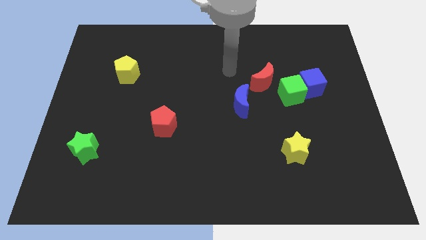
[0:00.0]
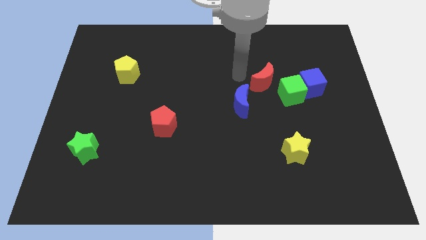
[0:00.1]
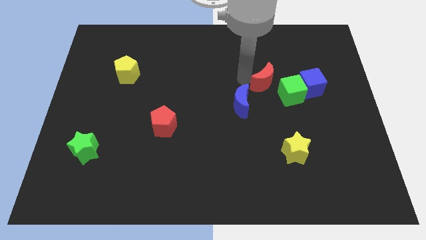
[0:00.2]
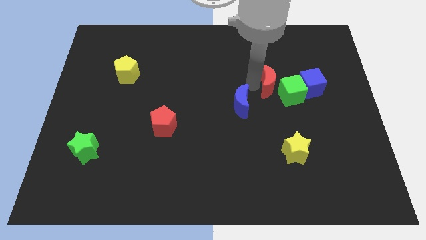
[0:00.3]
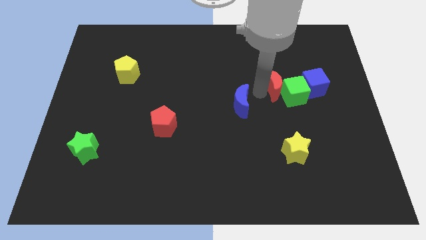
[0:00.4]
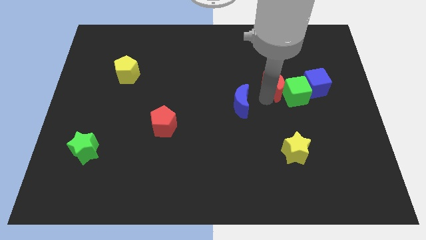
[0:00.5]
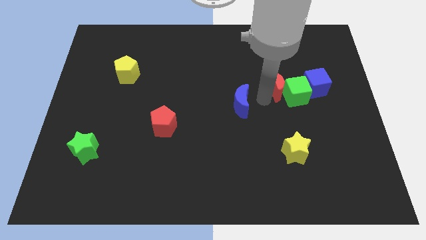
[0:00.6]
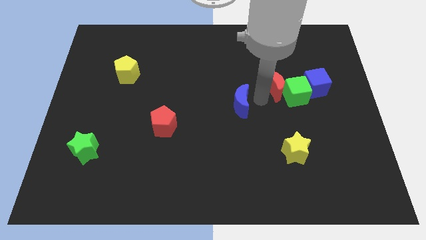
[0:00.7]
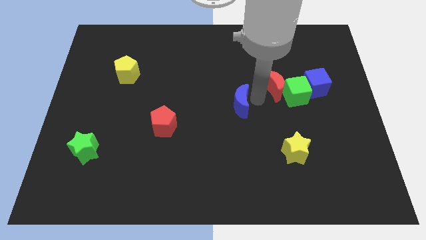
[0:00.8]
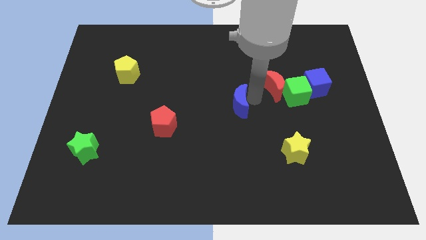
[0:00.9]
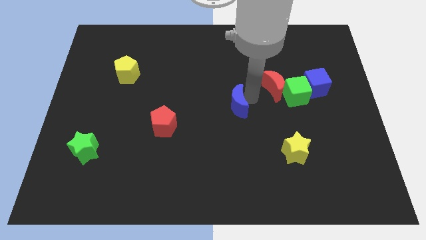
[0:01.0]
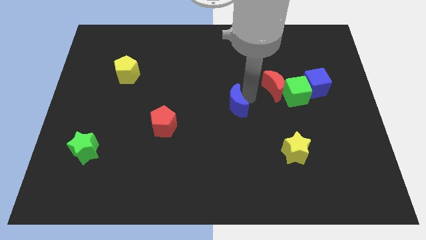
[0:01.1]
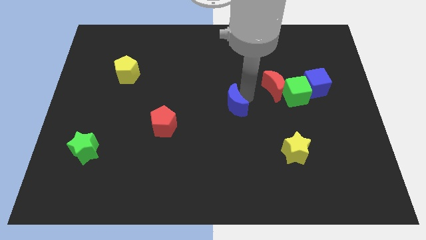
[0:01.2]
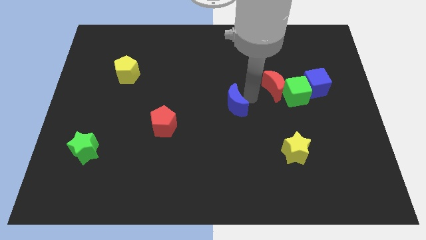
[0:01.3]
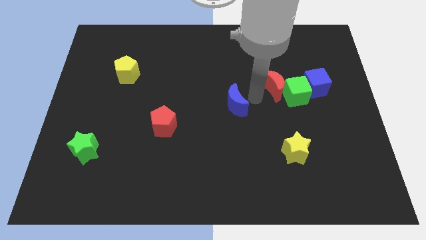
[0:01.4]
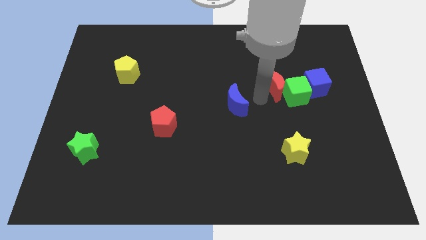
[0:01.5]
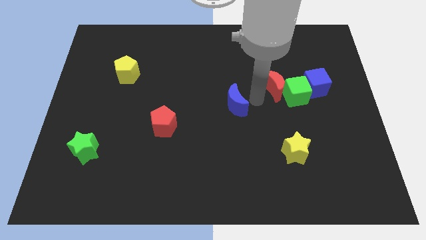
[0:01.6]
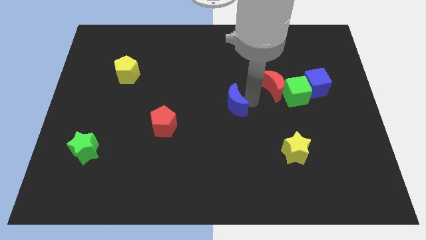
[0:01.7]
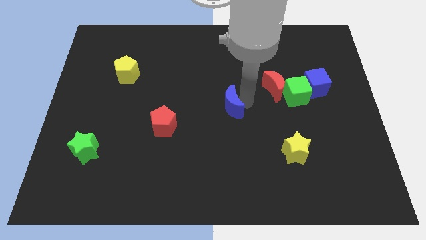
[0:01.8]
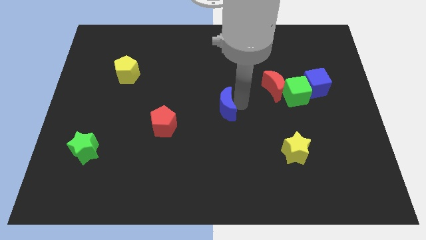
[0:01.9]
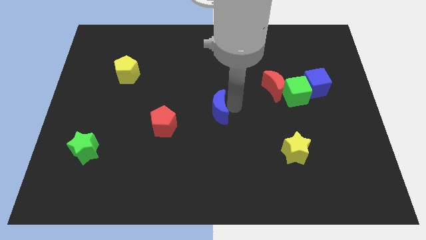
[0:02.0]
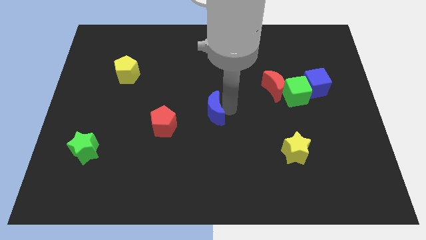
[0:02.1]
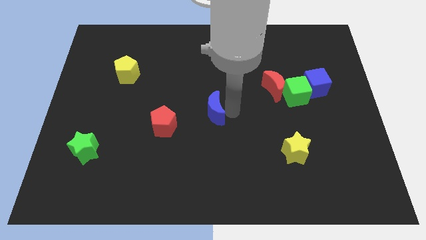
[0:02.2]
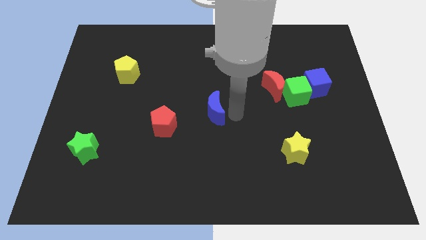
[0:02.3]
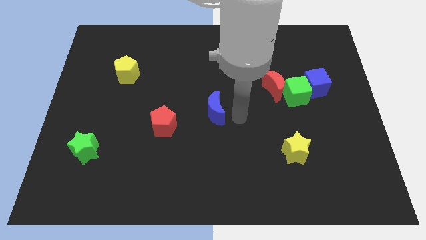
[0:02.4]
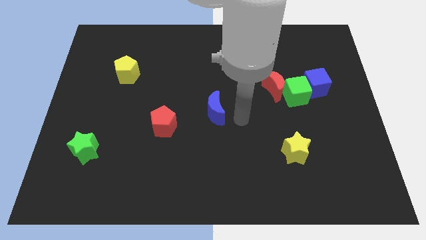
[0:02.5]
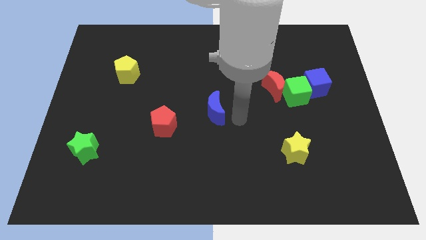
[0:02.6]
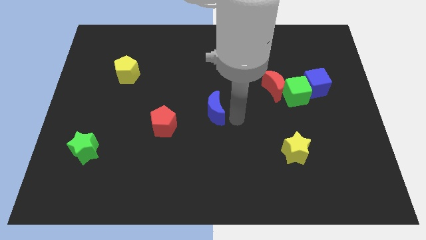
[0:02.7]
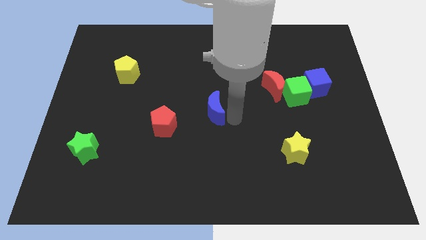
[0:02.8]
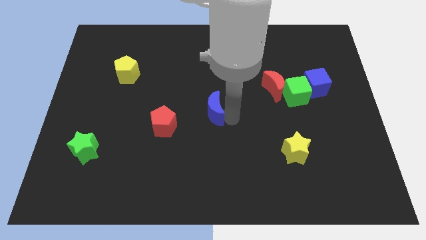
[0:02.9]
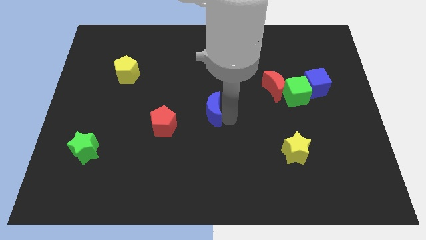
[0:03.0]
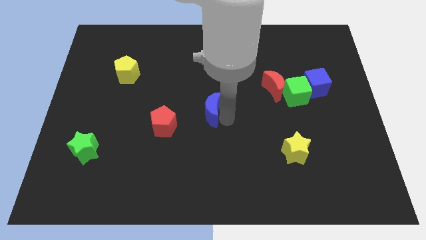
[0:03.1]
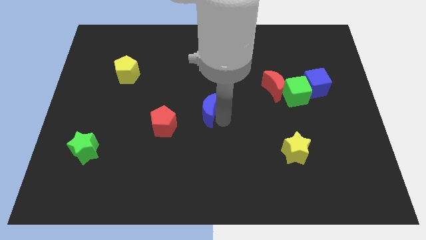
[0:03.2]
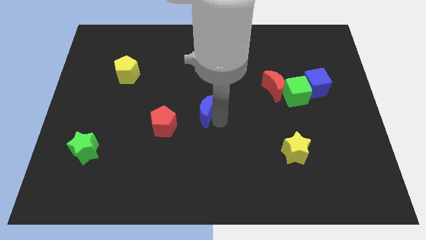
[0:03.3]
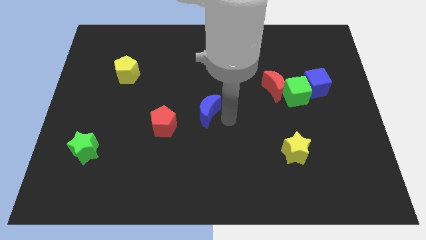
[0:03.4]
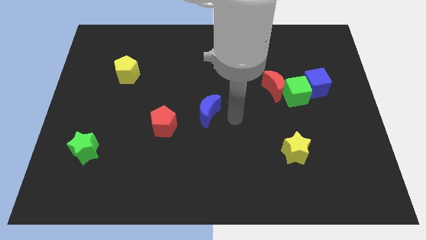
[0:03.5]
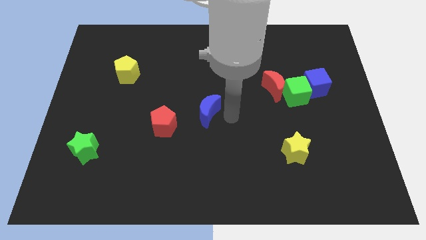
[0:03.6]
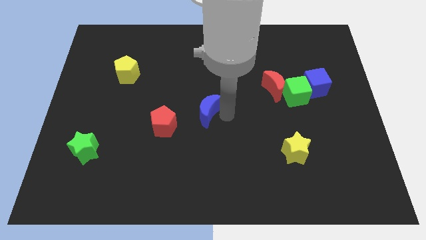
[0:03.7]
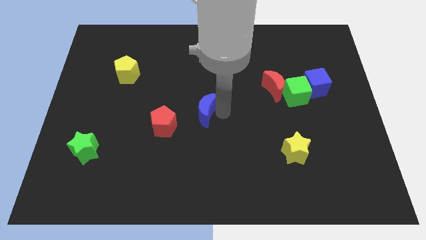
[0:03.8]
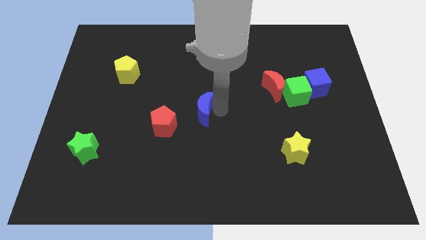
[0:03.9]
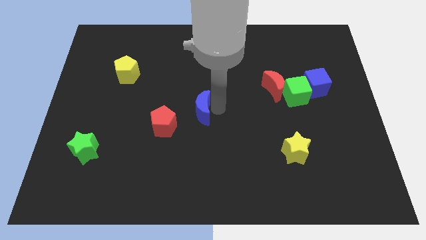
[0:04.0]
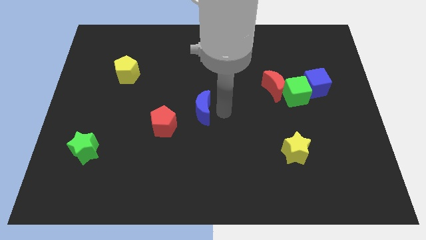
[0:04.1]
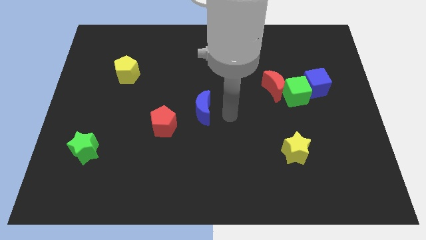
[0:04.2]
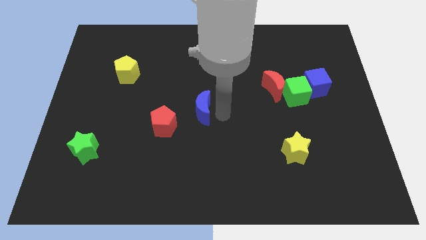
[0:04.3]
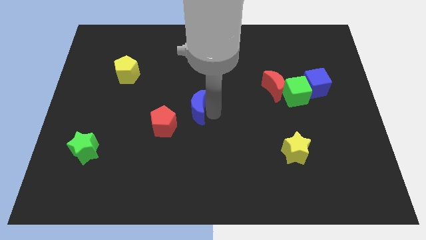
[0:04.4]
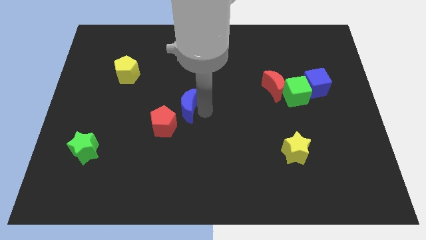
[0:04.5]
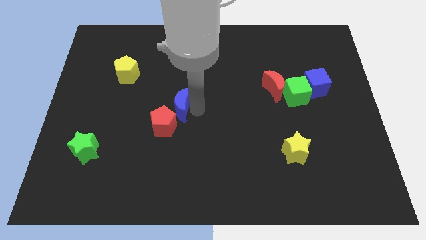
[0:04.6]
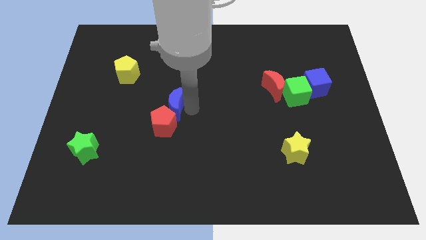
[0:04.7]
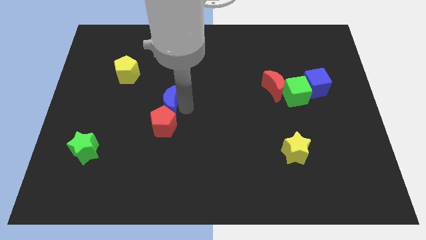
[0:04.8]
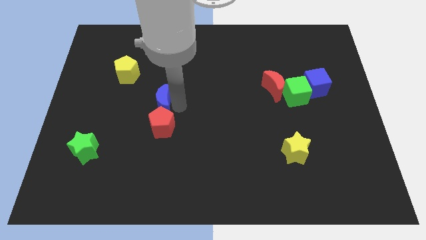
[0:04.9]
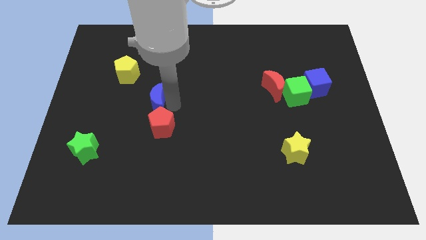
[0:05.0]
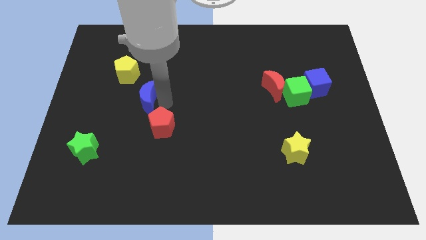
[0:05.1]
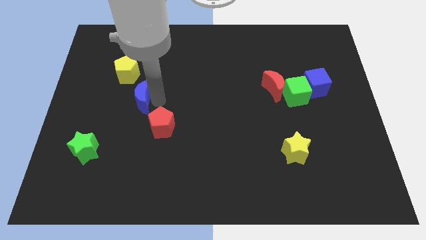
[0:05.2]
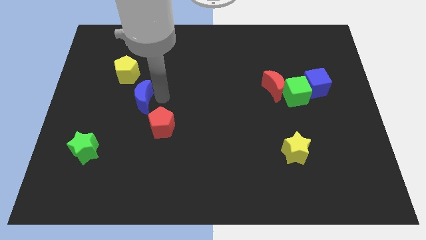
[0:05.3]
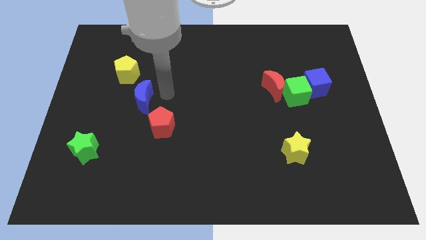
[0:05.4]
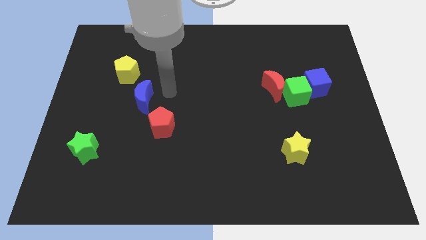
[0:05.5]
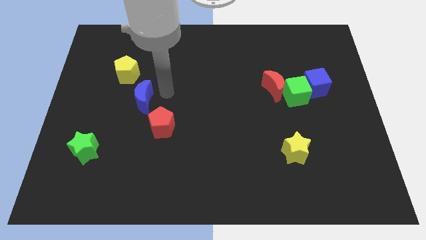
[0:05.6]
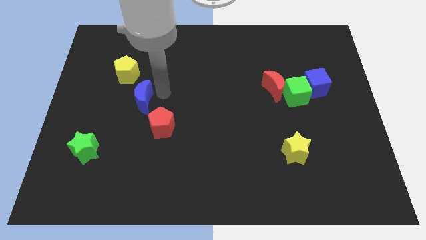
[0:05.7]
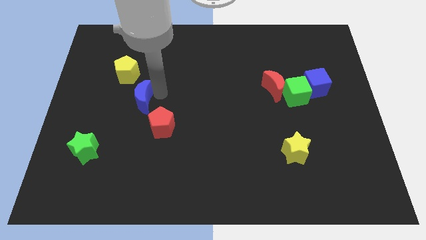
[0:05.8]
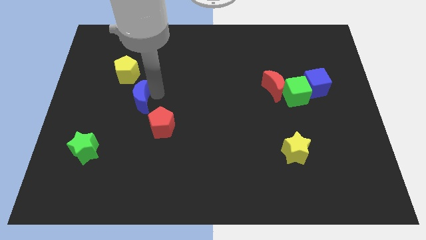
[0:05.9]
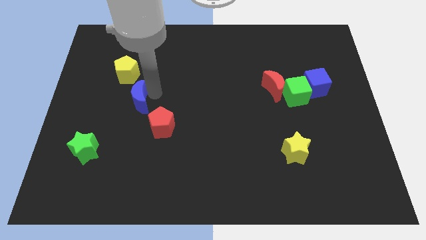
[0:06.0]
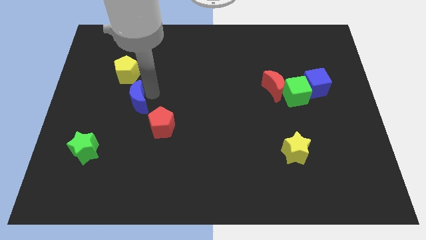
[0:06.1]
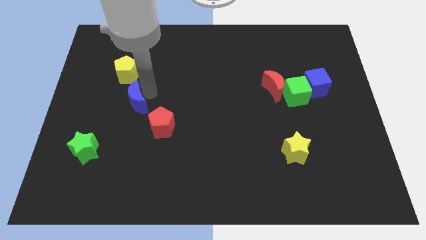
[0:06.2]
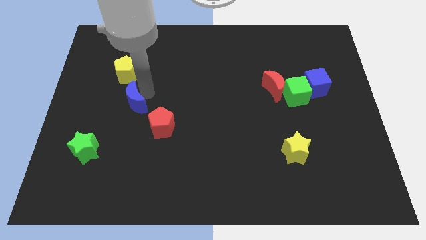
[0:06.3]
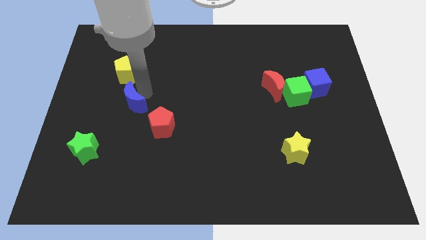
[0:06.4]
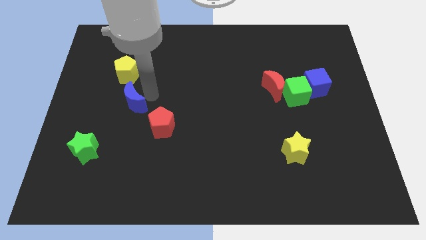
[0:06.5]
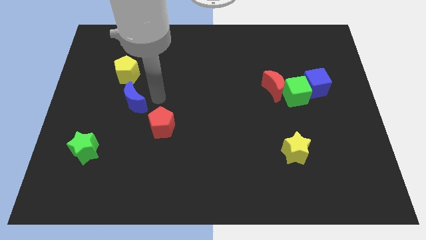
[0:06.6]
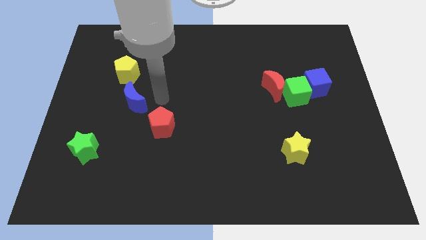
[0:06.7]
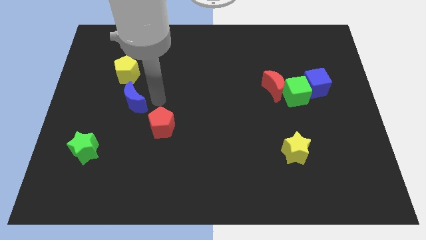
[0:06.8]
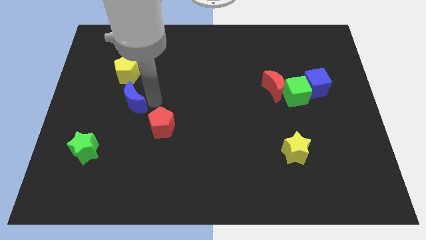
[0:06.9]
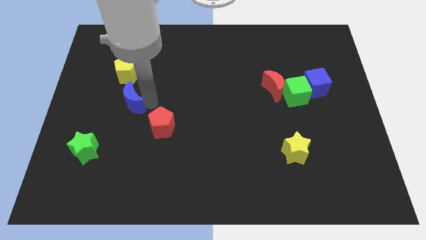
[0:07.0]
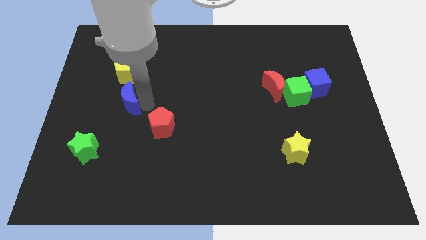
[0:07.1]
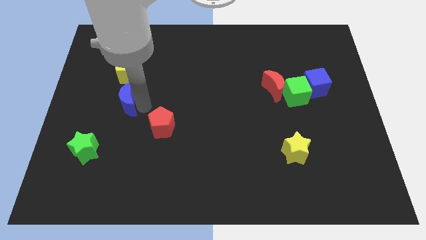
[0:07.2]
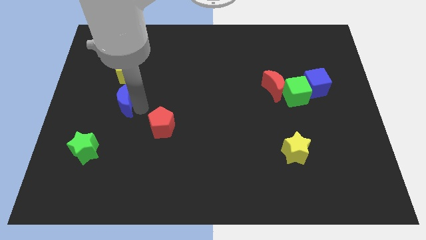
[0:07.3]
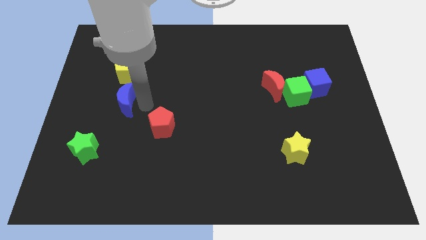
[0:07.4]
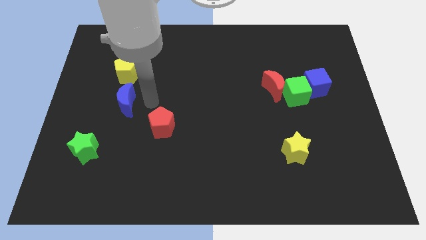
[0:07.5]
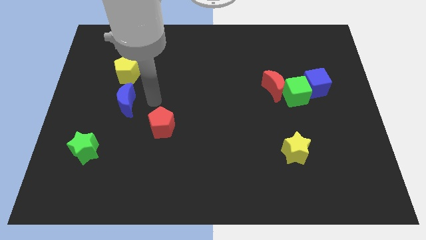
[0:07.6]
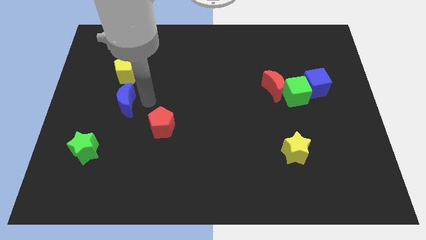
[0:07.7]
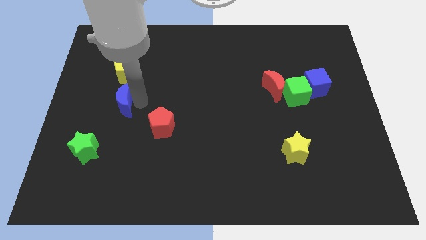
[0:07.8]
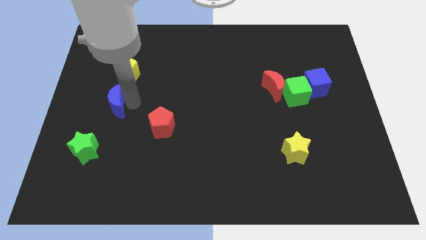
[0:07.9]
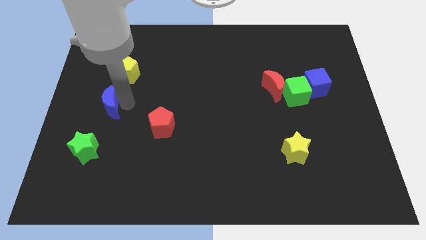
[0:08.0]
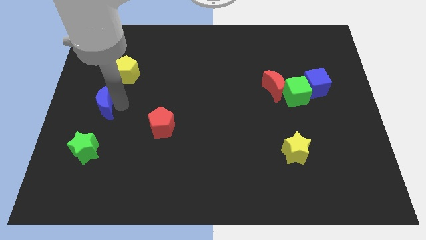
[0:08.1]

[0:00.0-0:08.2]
put the blue moon to the left side of the board
